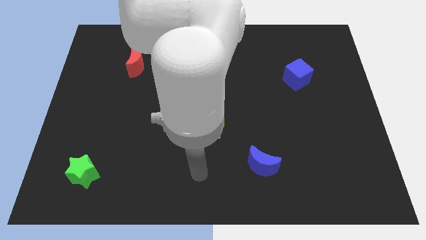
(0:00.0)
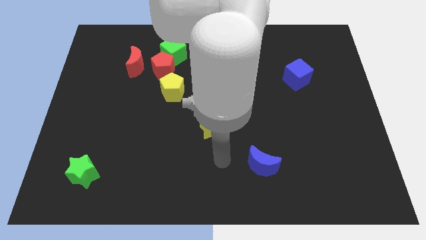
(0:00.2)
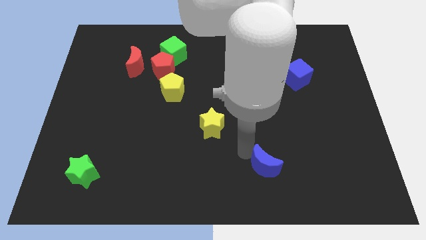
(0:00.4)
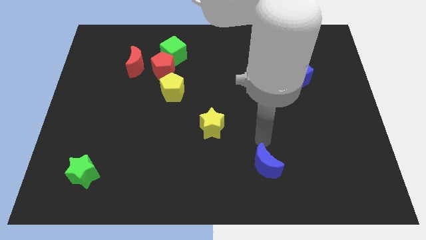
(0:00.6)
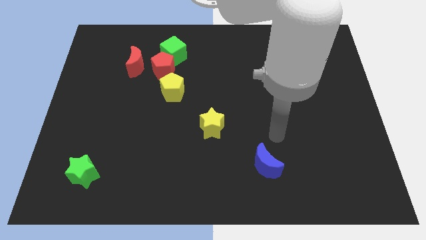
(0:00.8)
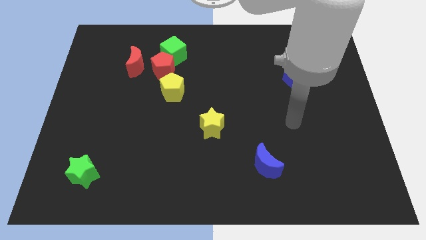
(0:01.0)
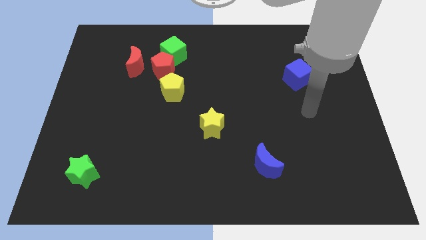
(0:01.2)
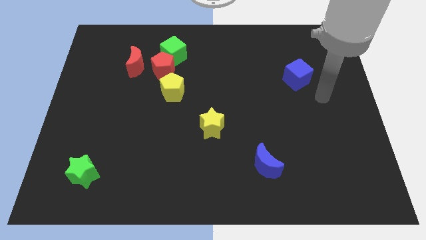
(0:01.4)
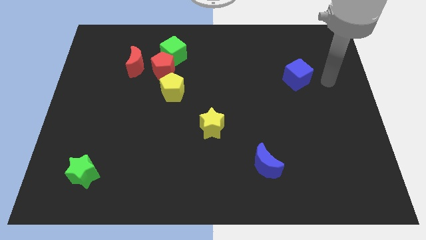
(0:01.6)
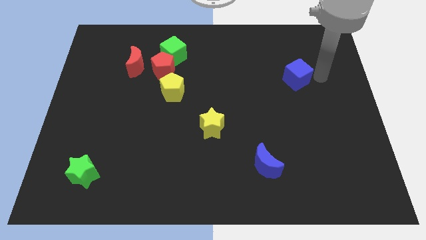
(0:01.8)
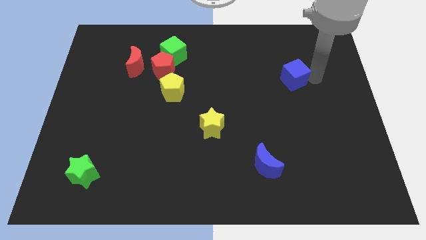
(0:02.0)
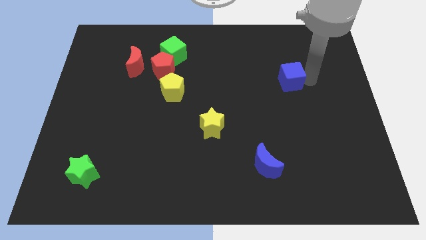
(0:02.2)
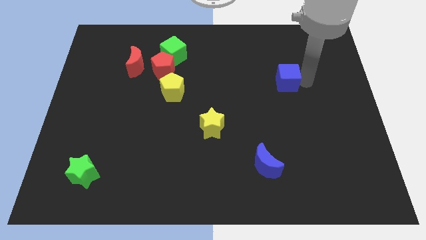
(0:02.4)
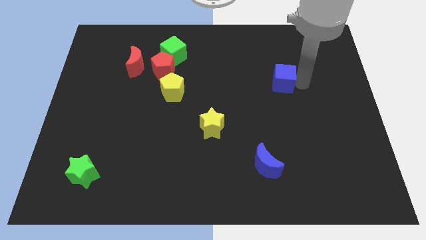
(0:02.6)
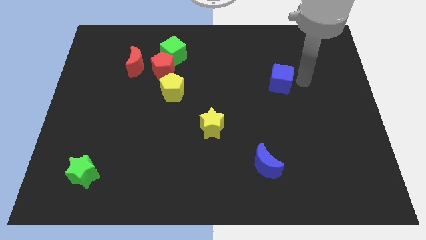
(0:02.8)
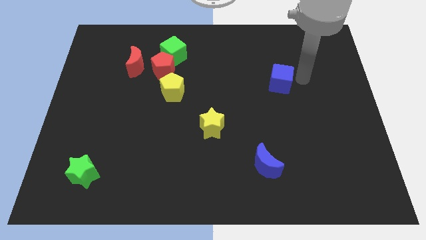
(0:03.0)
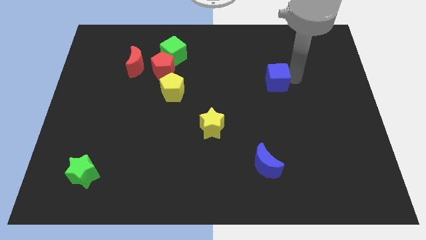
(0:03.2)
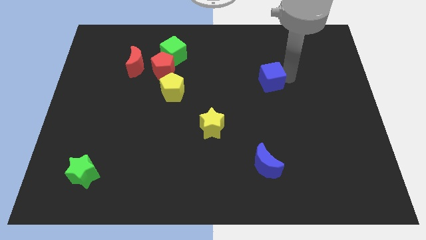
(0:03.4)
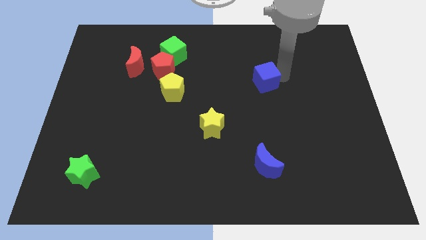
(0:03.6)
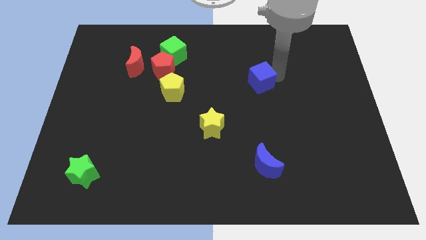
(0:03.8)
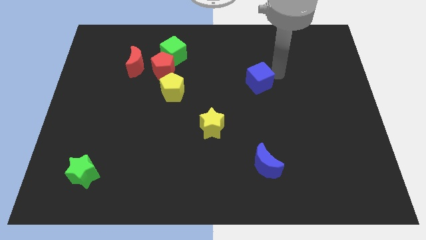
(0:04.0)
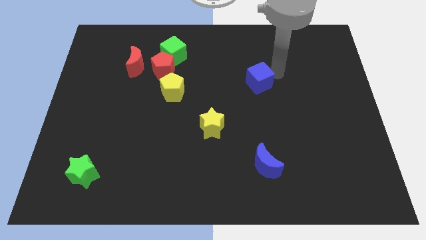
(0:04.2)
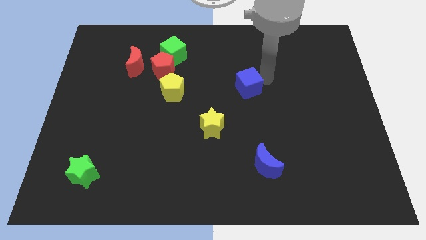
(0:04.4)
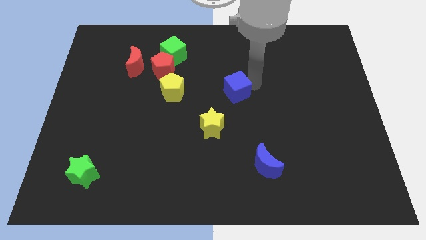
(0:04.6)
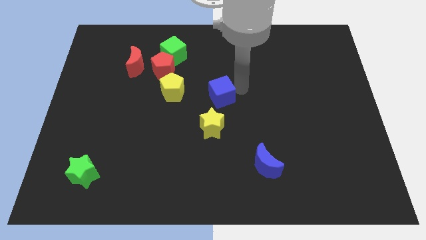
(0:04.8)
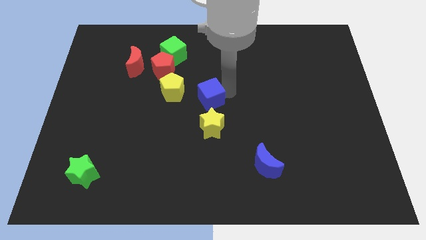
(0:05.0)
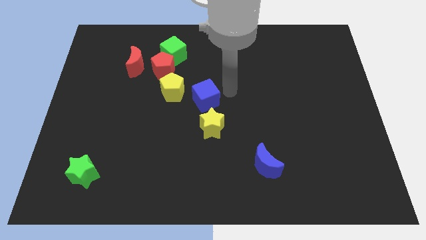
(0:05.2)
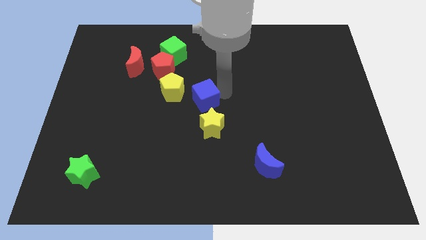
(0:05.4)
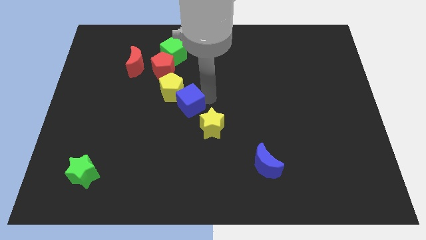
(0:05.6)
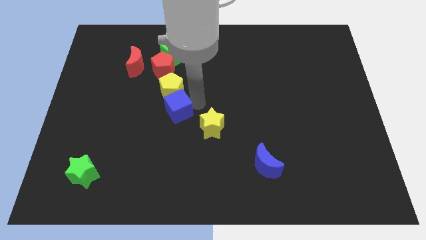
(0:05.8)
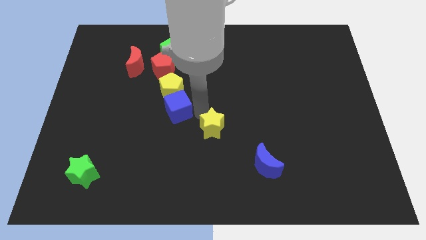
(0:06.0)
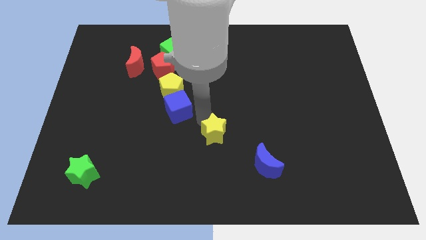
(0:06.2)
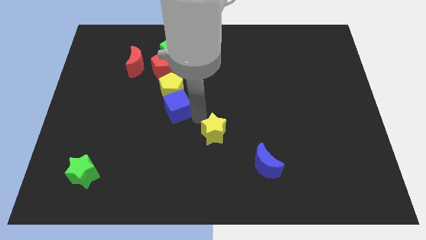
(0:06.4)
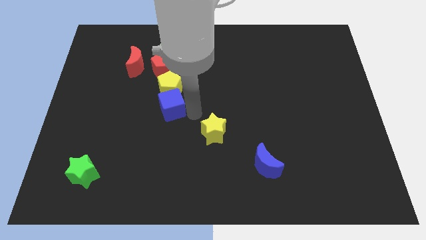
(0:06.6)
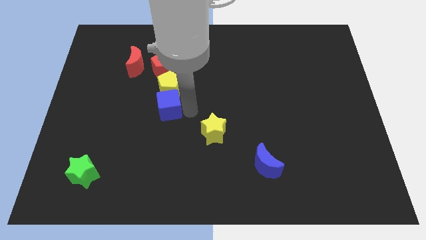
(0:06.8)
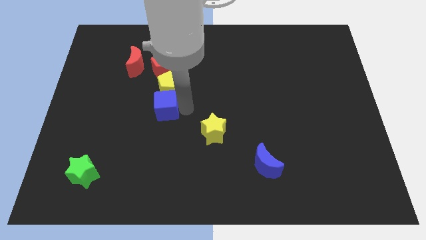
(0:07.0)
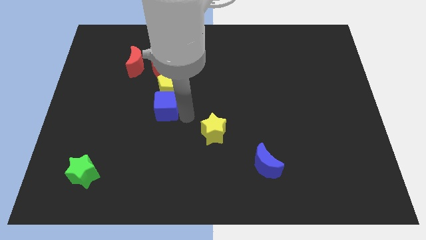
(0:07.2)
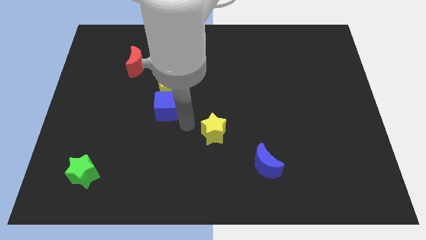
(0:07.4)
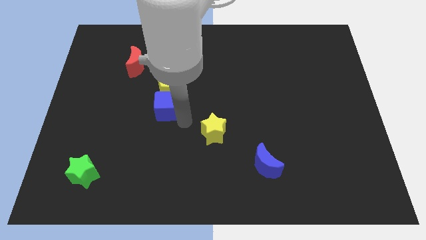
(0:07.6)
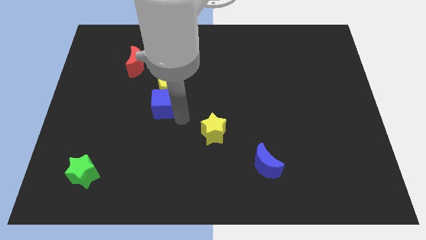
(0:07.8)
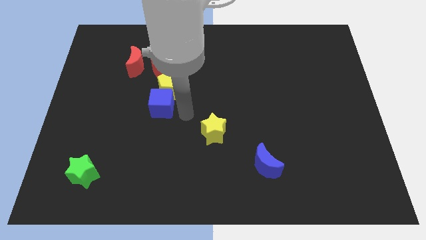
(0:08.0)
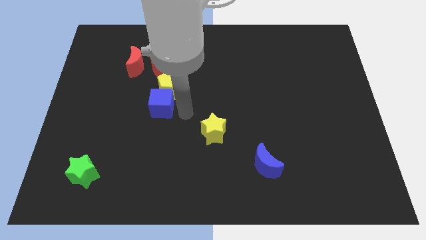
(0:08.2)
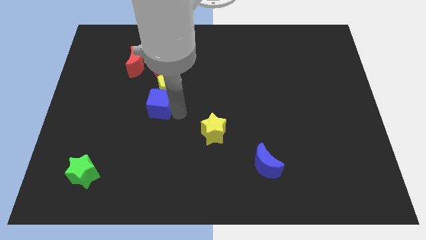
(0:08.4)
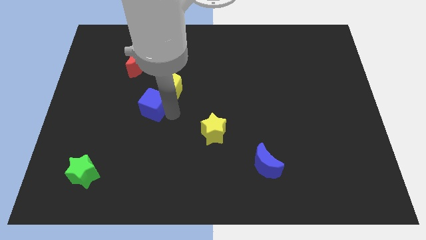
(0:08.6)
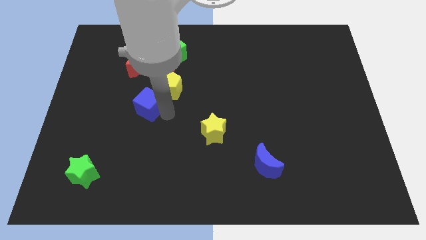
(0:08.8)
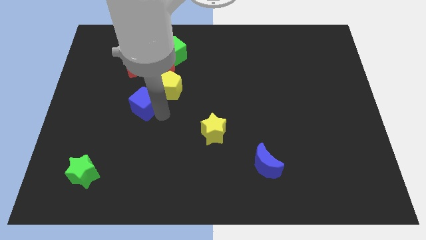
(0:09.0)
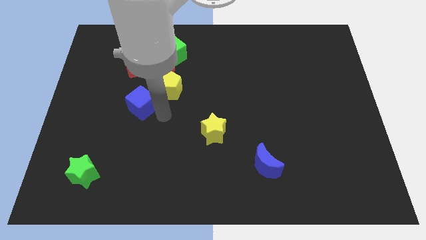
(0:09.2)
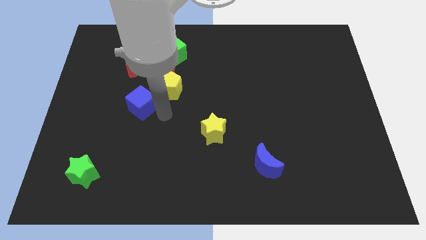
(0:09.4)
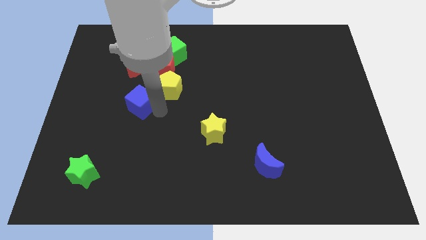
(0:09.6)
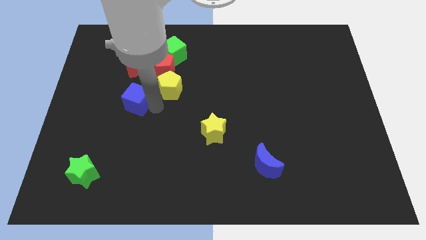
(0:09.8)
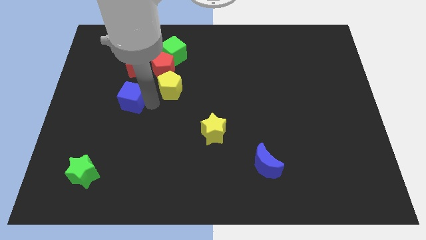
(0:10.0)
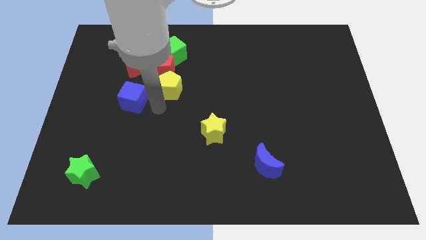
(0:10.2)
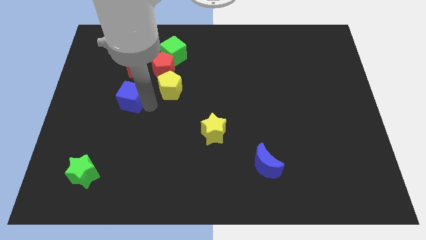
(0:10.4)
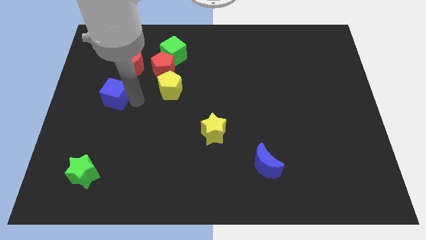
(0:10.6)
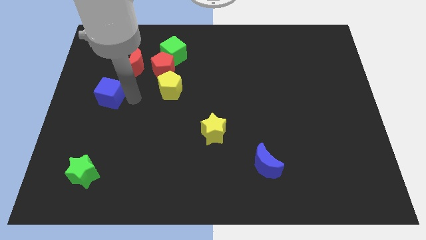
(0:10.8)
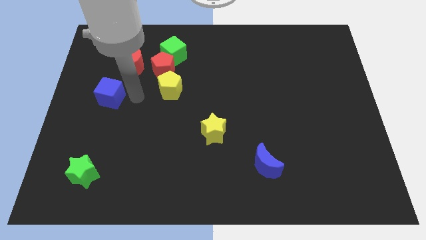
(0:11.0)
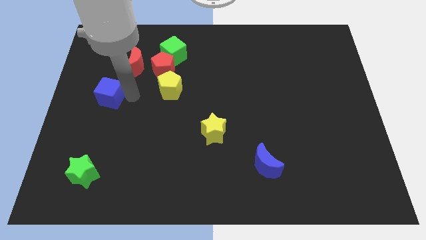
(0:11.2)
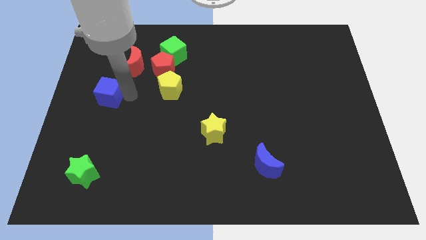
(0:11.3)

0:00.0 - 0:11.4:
push the blue cube to the left side of the board
